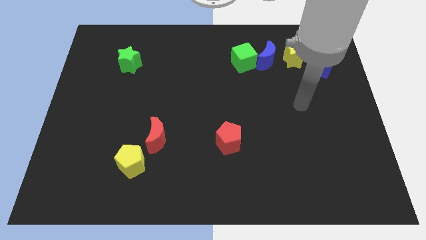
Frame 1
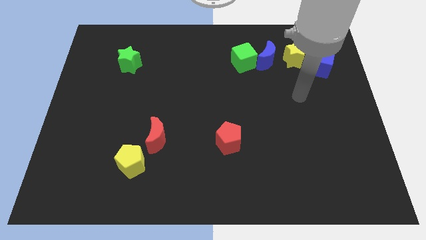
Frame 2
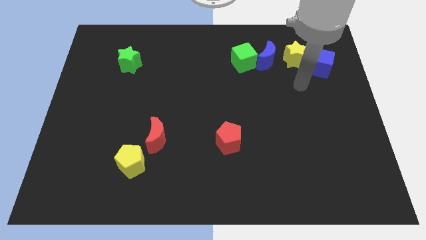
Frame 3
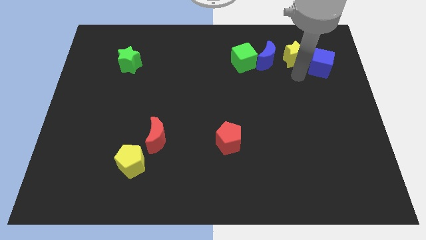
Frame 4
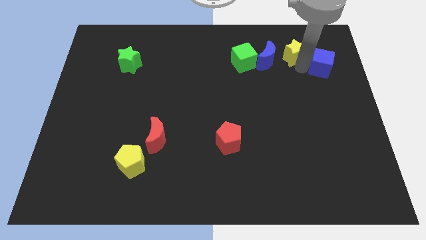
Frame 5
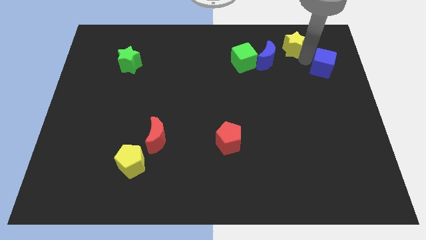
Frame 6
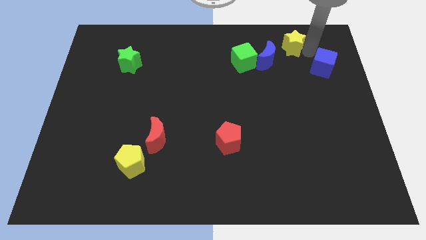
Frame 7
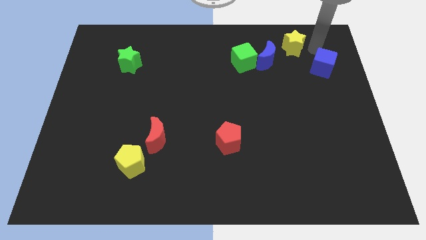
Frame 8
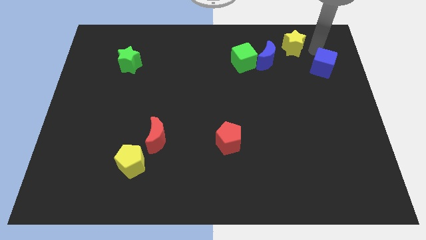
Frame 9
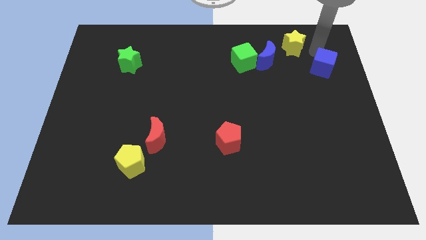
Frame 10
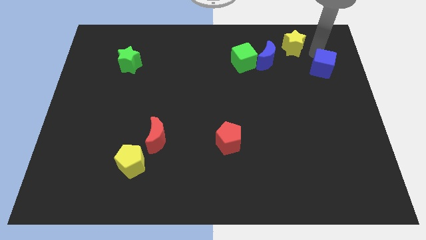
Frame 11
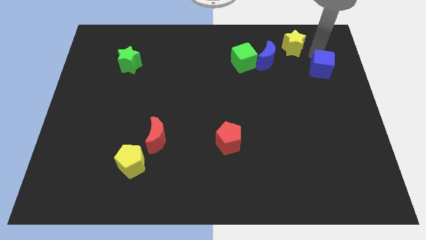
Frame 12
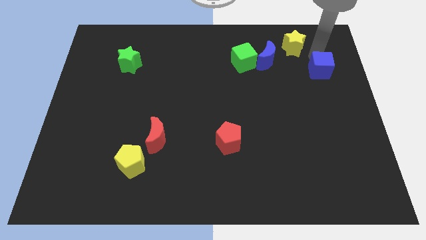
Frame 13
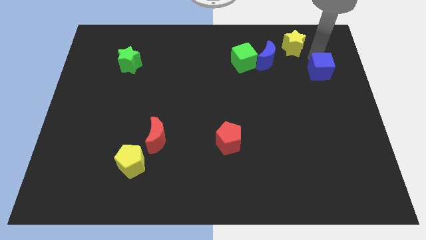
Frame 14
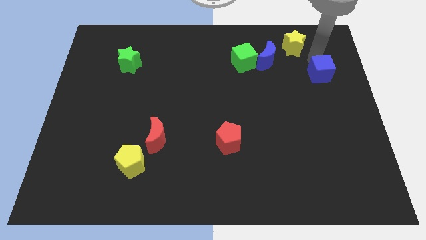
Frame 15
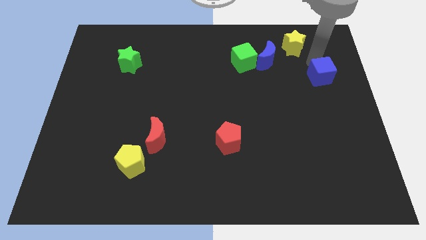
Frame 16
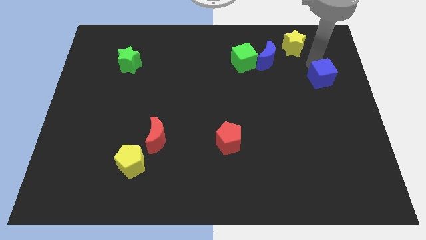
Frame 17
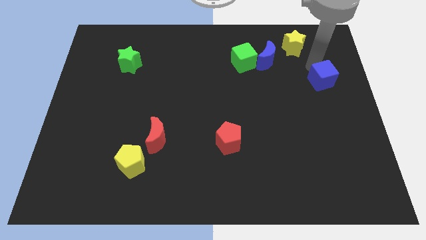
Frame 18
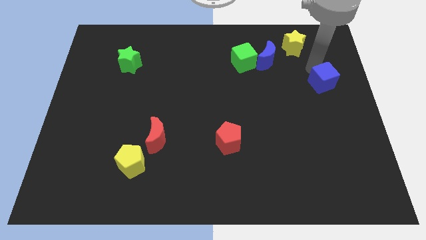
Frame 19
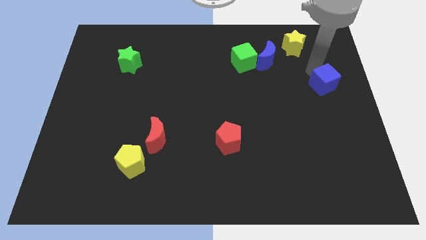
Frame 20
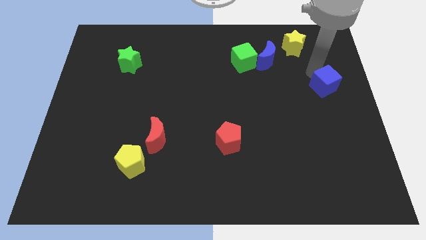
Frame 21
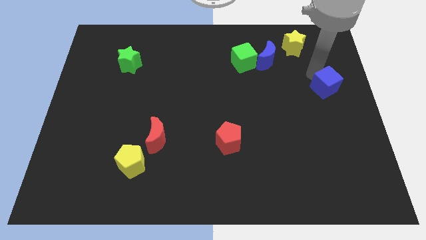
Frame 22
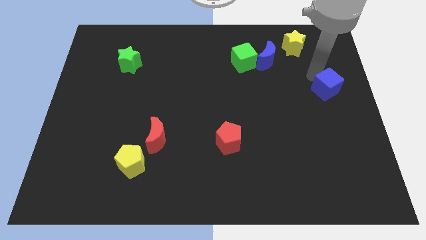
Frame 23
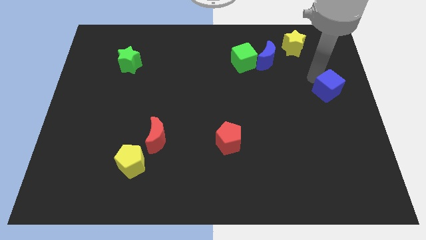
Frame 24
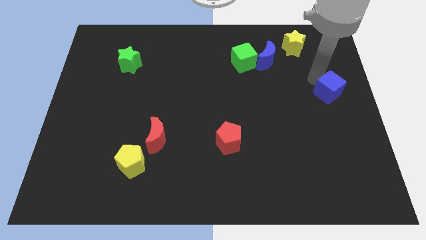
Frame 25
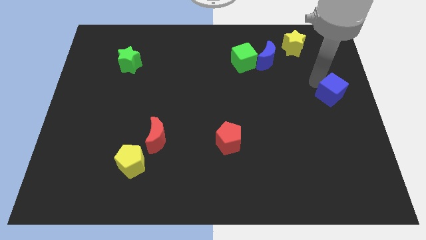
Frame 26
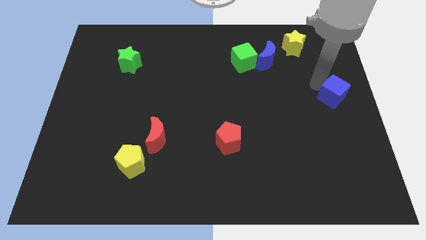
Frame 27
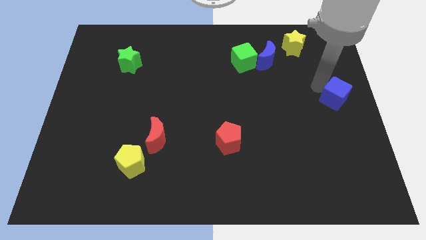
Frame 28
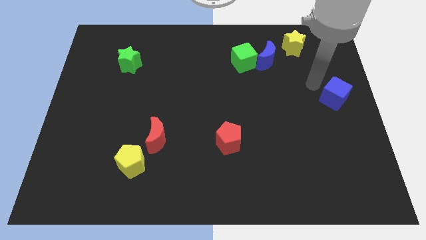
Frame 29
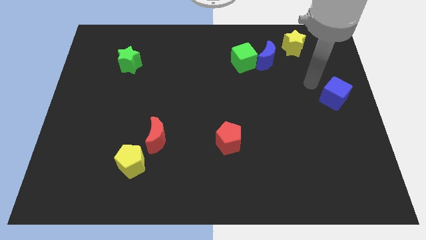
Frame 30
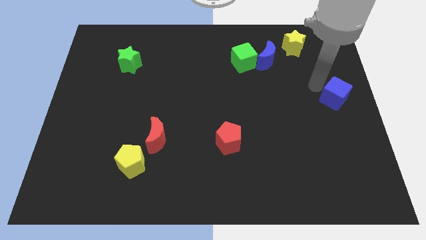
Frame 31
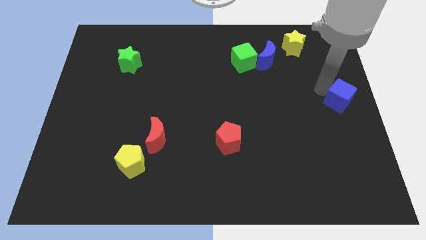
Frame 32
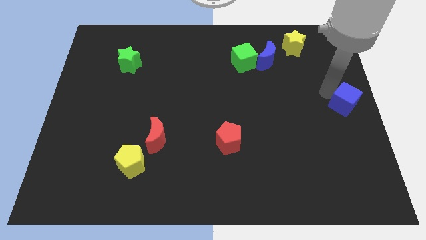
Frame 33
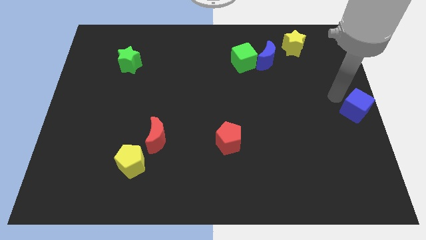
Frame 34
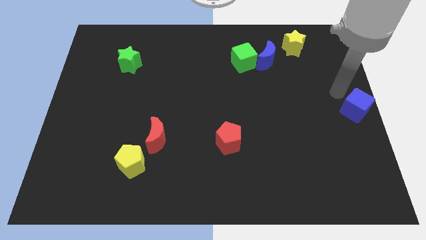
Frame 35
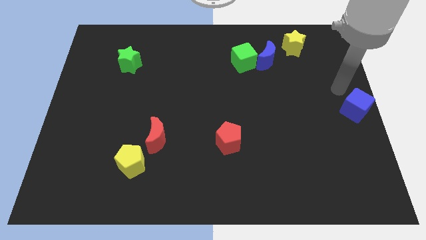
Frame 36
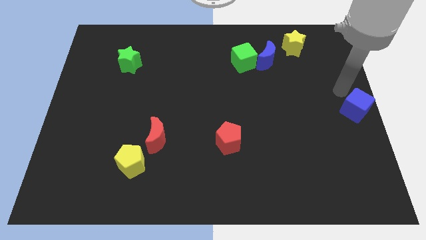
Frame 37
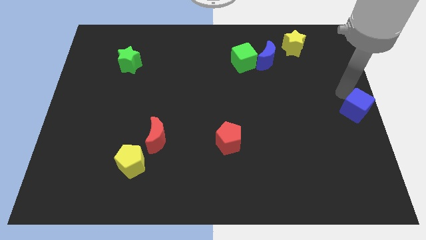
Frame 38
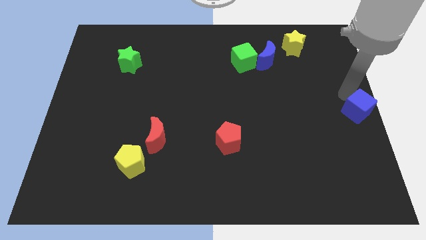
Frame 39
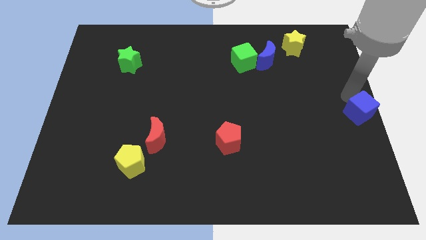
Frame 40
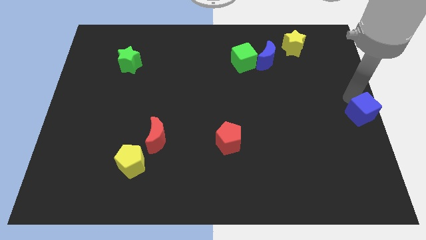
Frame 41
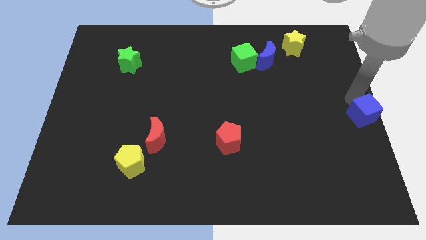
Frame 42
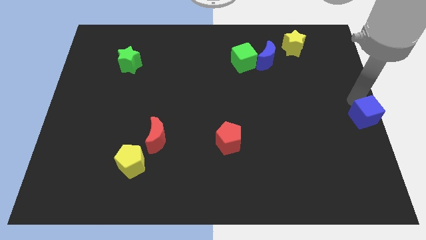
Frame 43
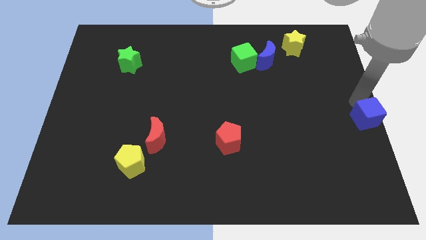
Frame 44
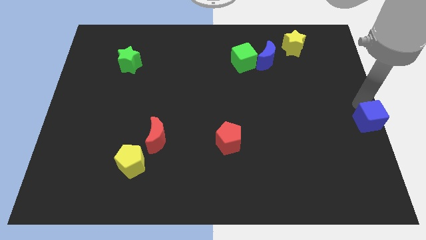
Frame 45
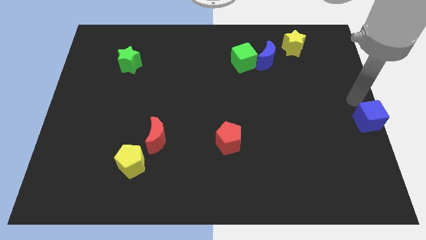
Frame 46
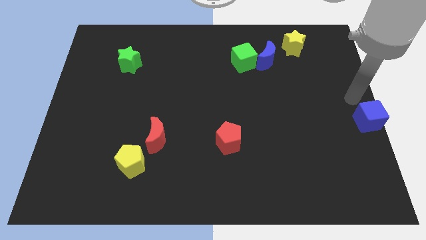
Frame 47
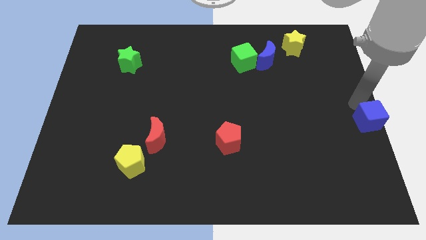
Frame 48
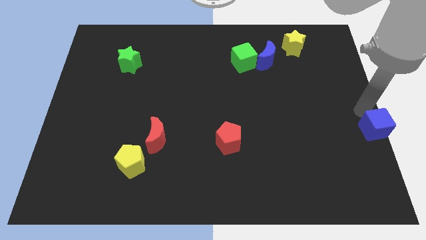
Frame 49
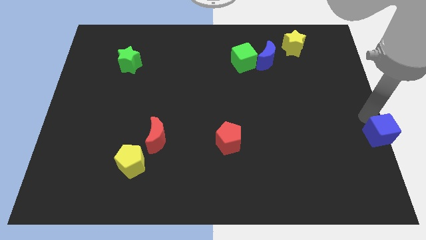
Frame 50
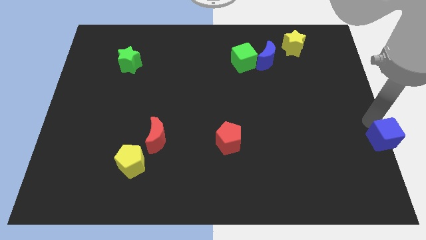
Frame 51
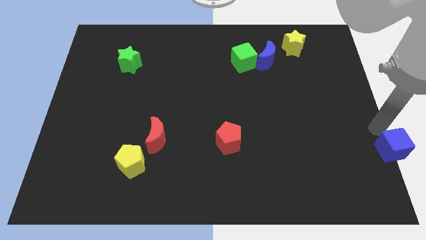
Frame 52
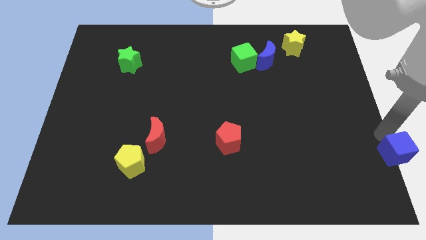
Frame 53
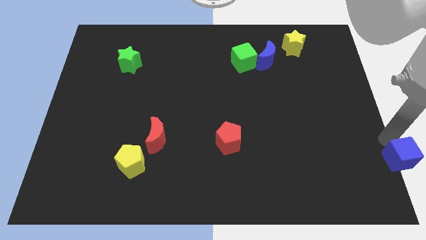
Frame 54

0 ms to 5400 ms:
slide the blue cube to the bottom right corner

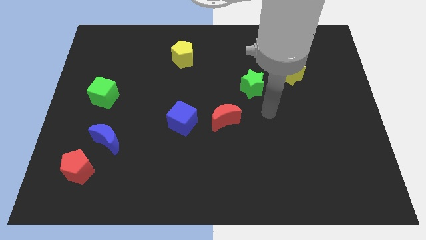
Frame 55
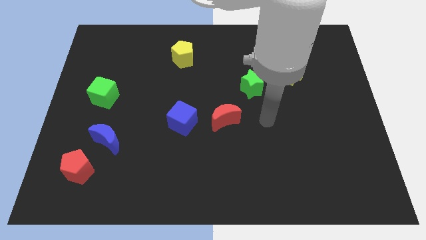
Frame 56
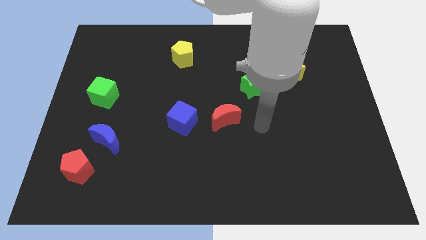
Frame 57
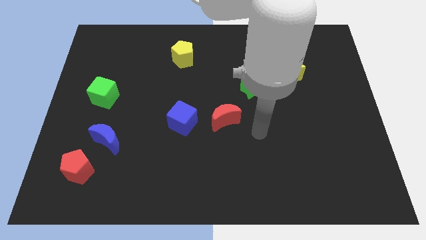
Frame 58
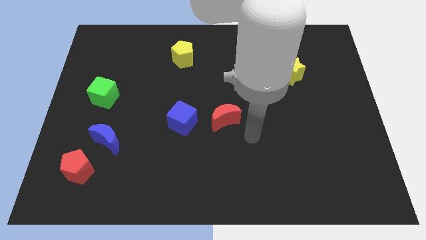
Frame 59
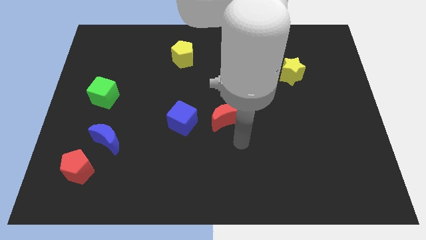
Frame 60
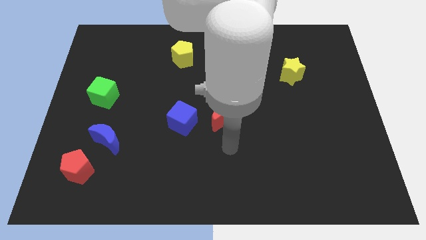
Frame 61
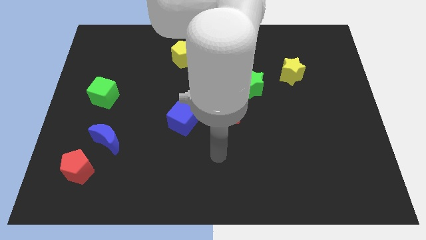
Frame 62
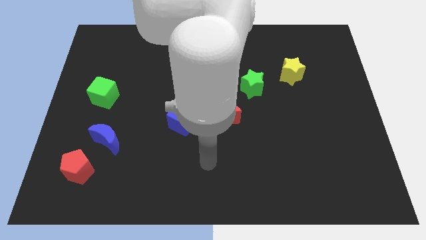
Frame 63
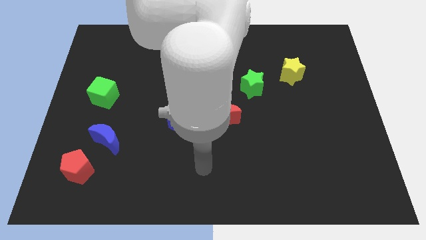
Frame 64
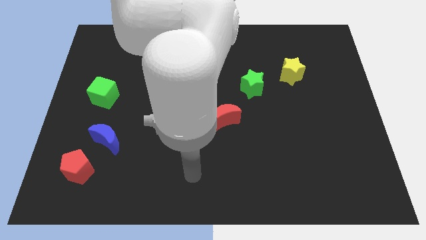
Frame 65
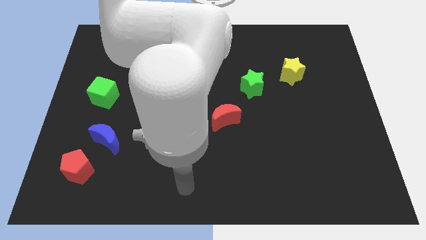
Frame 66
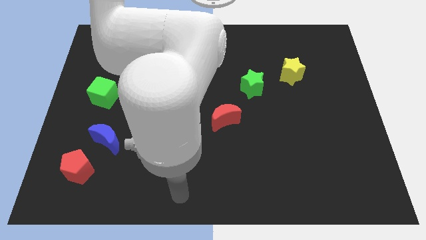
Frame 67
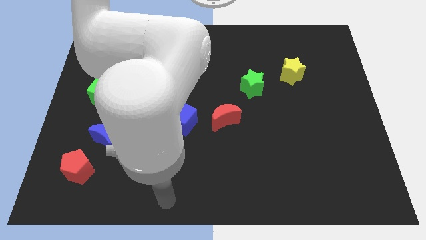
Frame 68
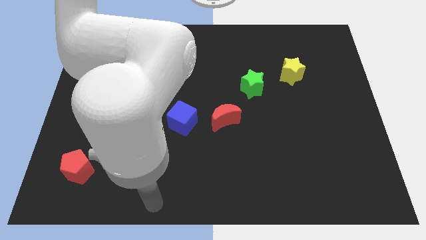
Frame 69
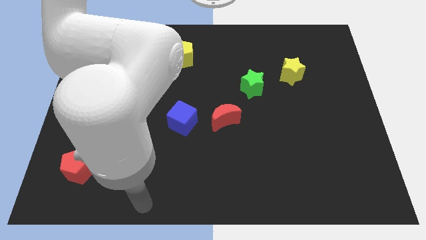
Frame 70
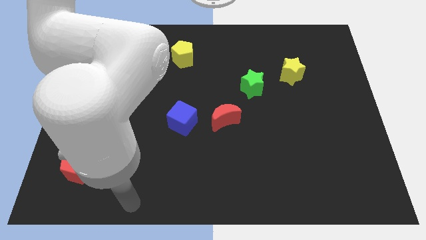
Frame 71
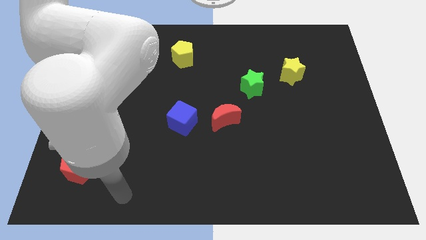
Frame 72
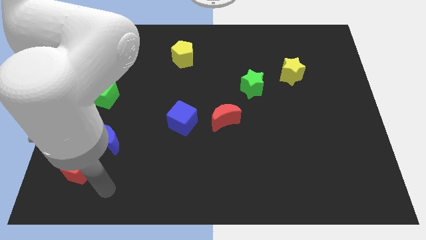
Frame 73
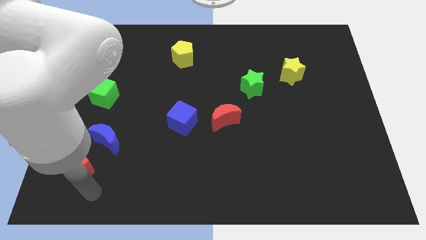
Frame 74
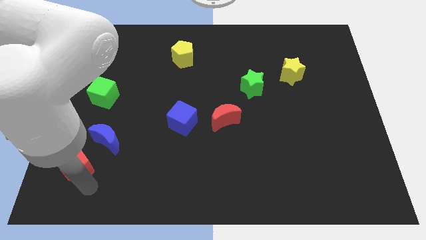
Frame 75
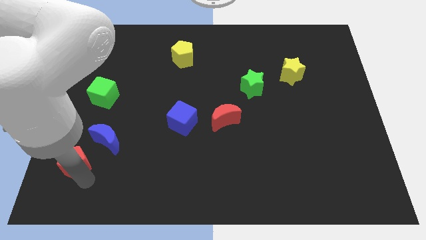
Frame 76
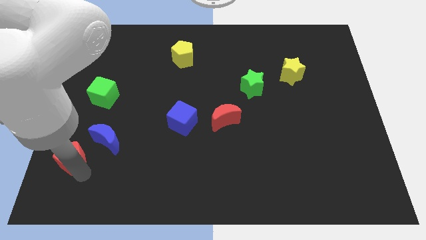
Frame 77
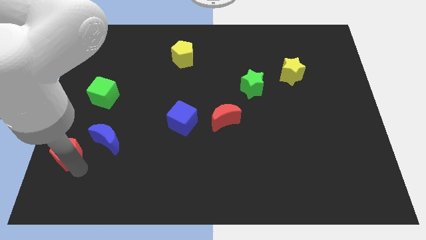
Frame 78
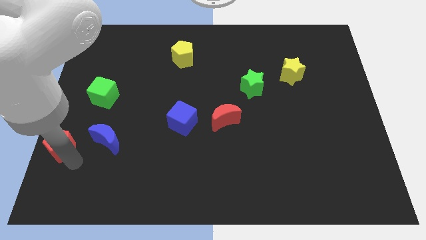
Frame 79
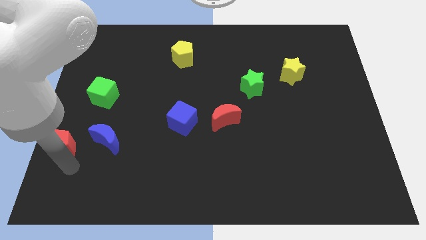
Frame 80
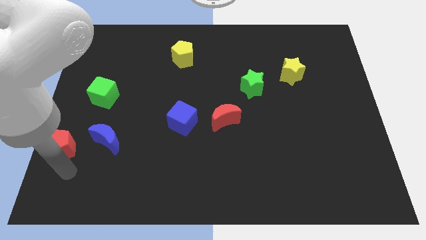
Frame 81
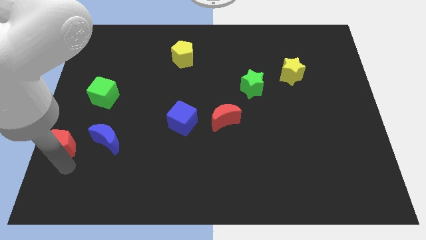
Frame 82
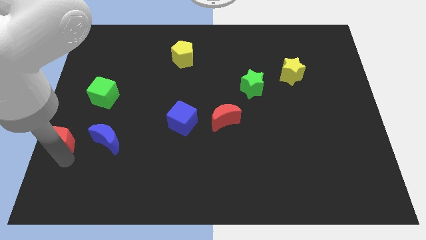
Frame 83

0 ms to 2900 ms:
move the red pentagon to the center left
